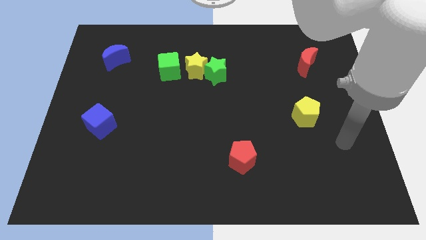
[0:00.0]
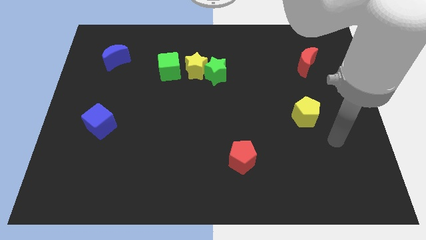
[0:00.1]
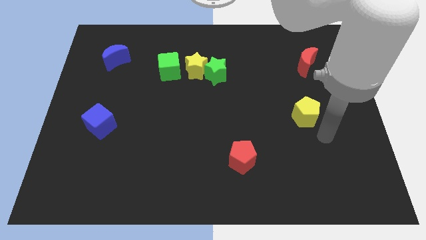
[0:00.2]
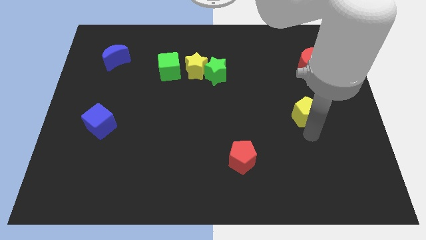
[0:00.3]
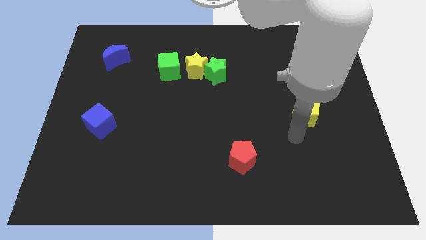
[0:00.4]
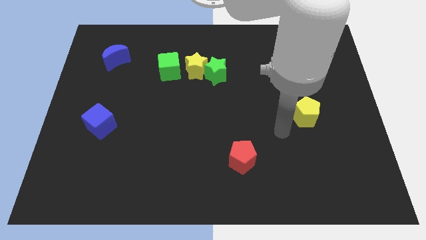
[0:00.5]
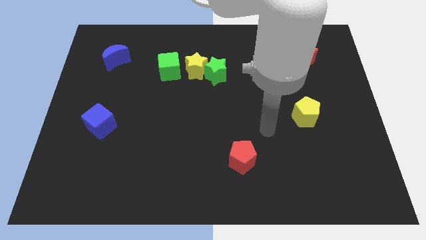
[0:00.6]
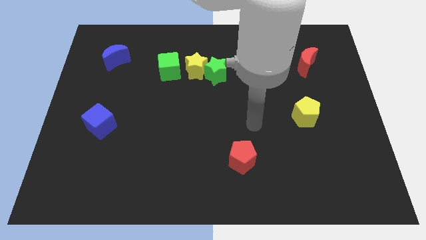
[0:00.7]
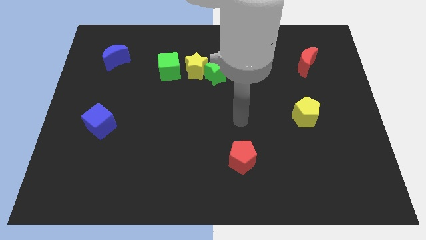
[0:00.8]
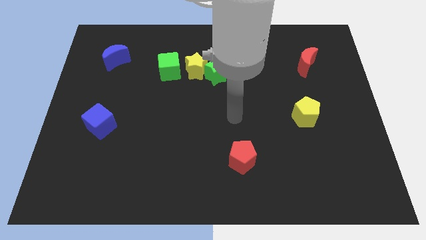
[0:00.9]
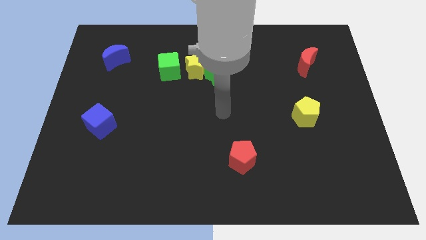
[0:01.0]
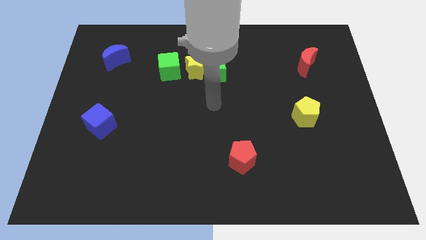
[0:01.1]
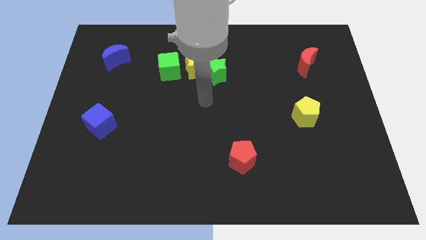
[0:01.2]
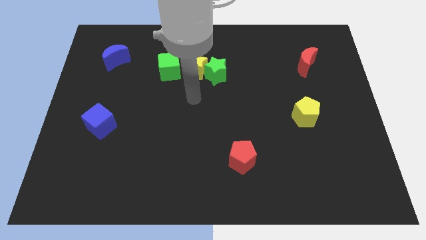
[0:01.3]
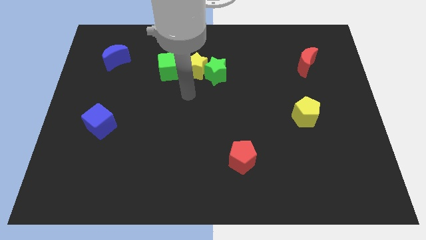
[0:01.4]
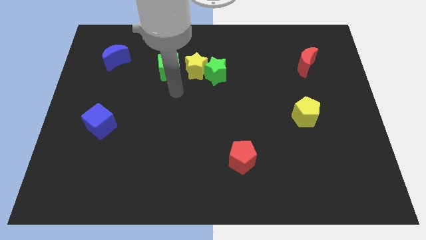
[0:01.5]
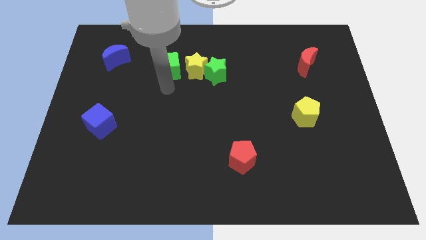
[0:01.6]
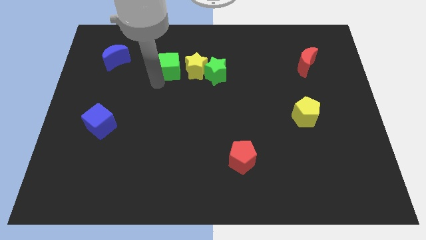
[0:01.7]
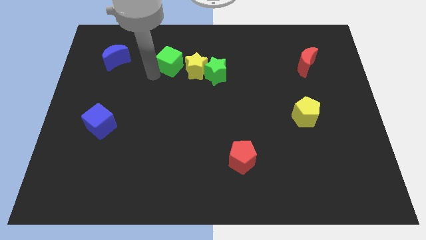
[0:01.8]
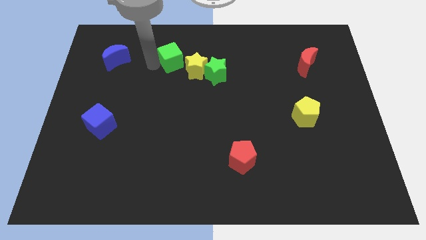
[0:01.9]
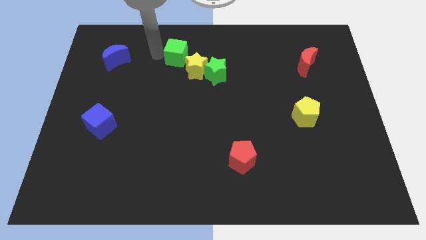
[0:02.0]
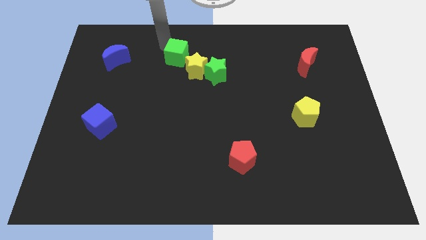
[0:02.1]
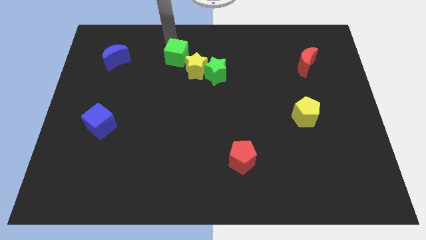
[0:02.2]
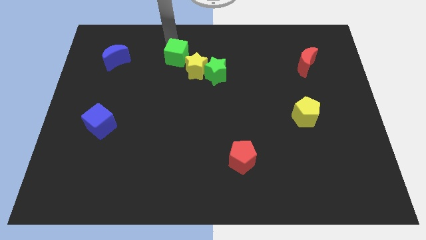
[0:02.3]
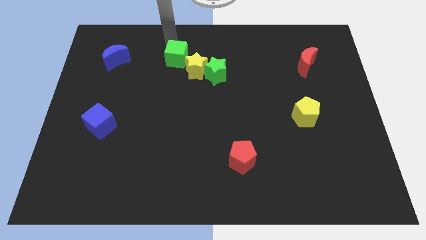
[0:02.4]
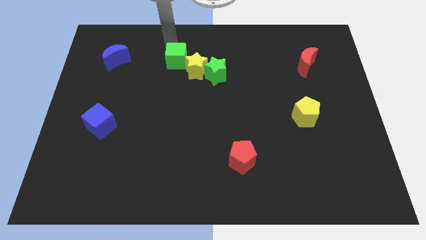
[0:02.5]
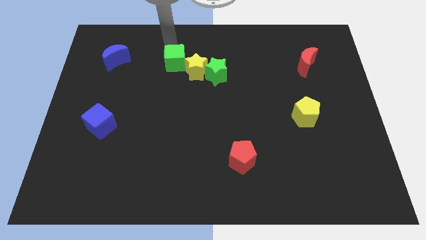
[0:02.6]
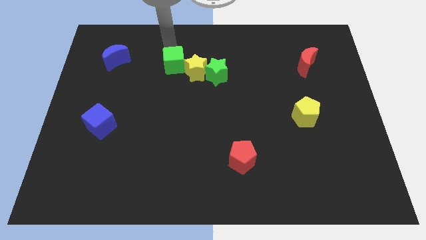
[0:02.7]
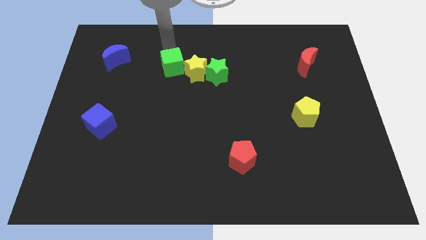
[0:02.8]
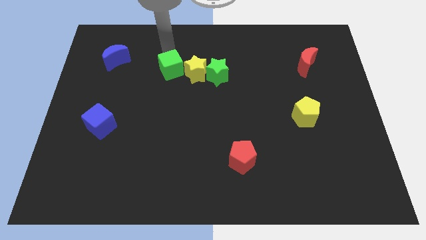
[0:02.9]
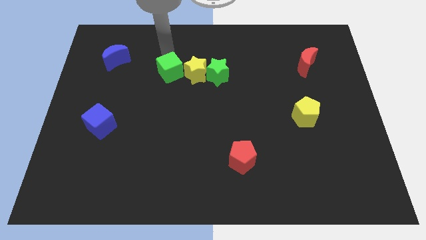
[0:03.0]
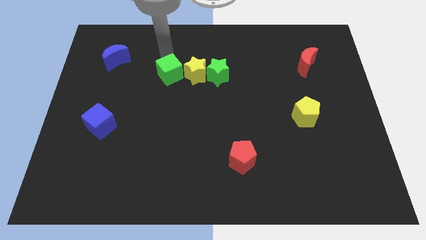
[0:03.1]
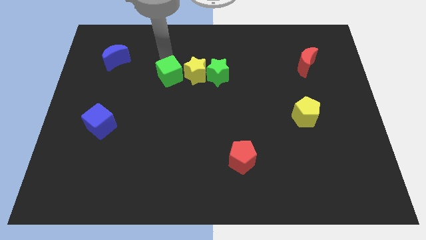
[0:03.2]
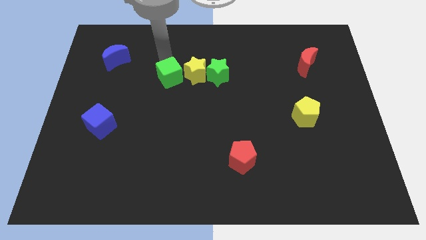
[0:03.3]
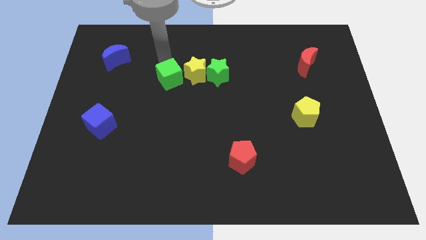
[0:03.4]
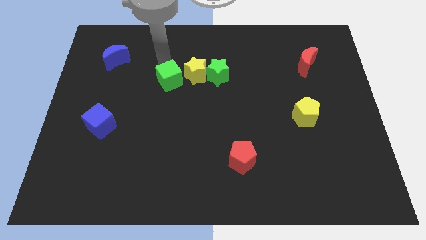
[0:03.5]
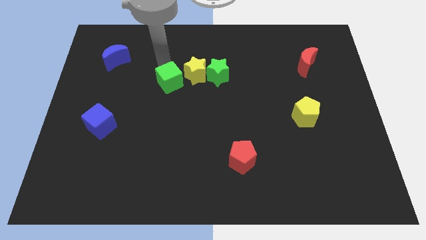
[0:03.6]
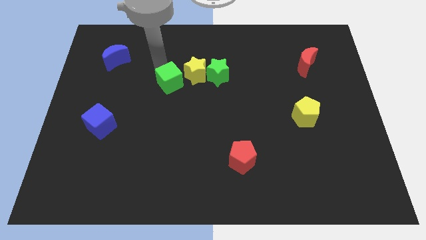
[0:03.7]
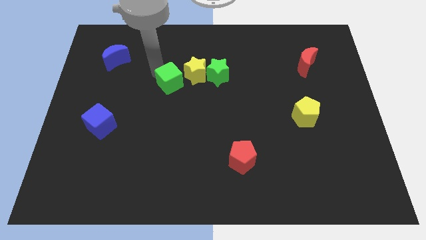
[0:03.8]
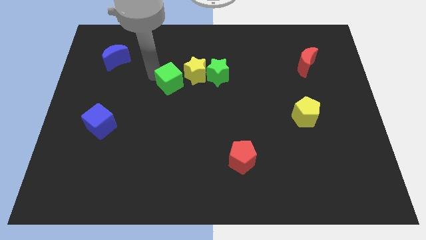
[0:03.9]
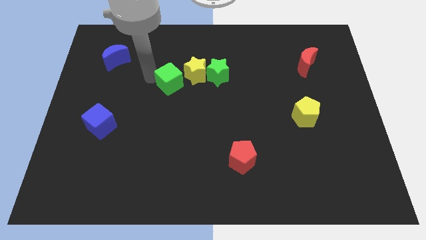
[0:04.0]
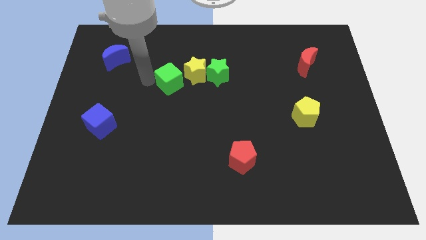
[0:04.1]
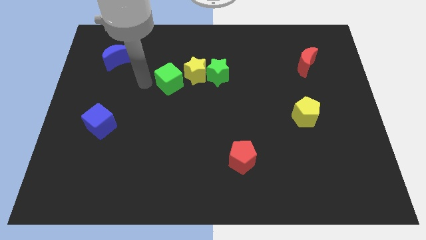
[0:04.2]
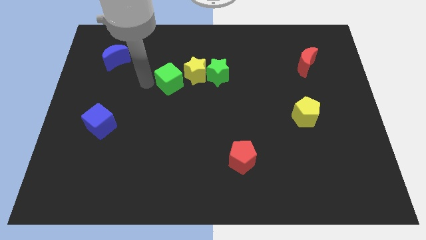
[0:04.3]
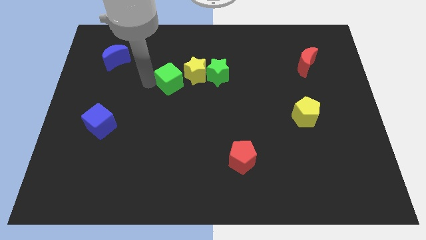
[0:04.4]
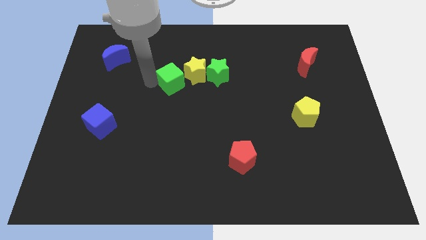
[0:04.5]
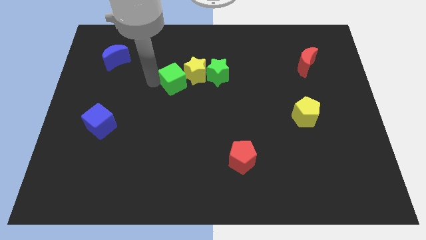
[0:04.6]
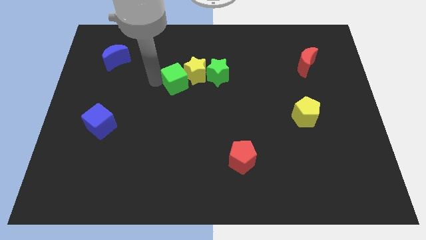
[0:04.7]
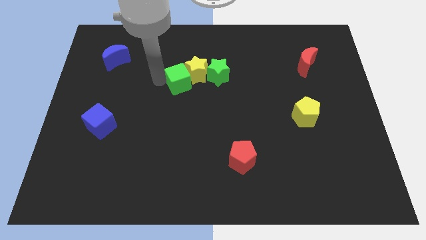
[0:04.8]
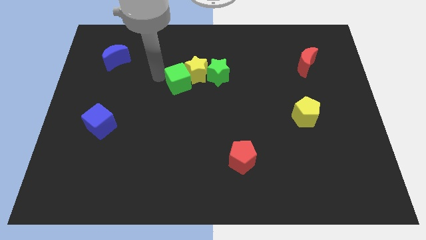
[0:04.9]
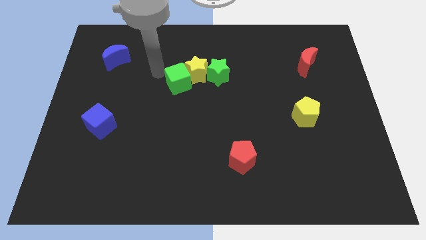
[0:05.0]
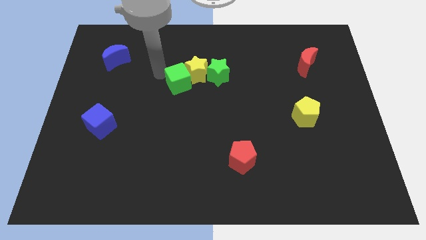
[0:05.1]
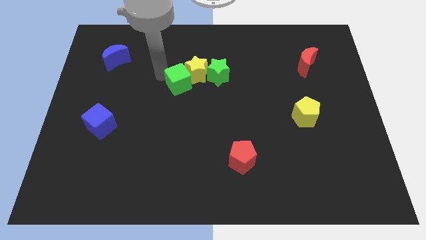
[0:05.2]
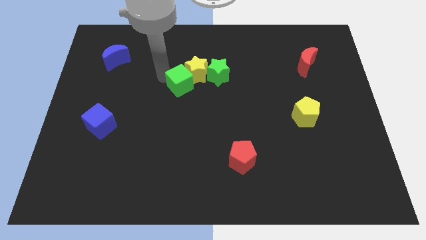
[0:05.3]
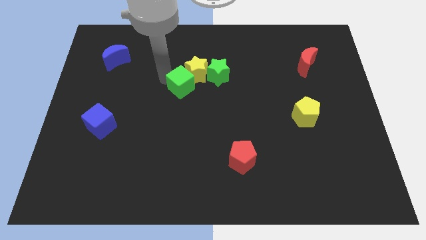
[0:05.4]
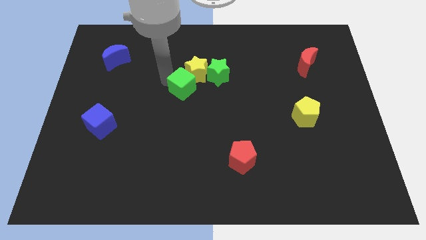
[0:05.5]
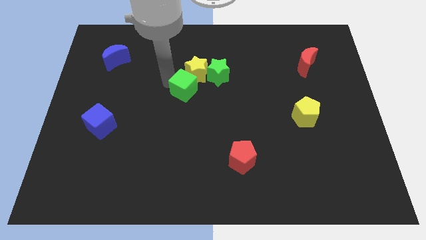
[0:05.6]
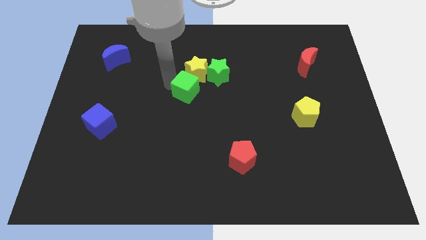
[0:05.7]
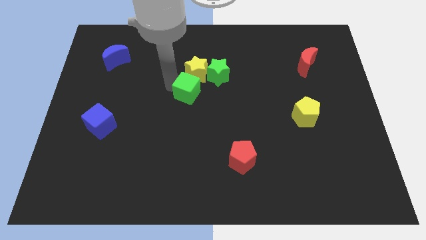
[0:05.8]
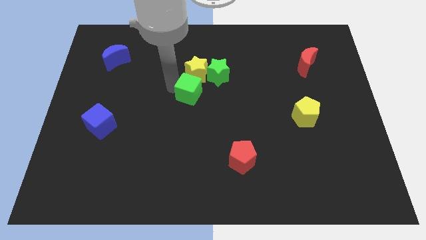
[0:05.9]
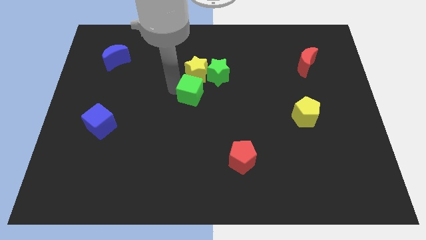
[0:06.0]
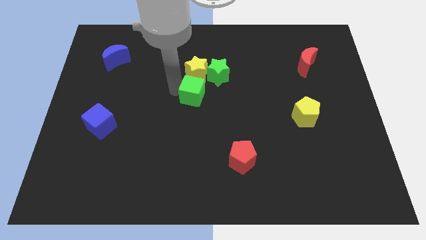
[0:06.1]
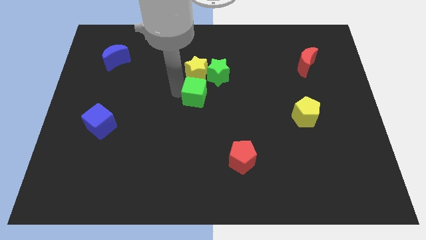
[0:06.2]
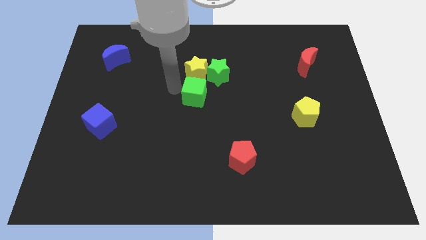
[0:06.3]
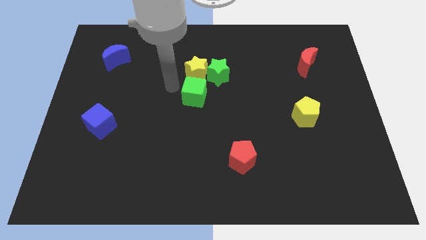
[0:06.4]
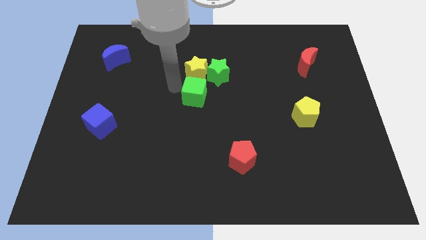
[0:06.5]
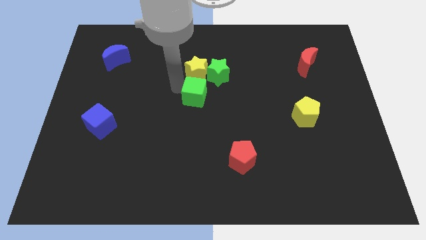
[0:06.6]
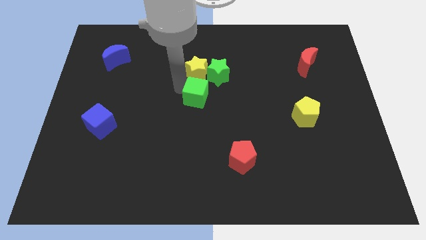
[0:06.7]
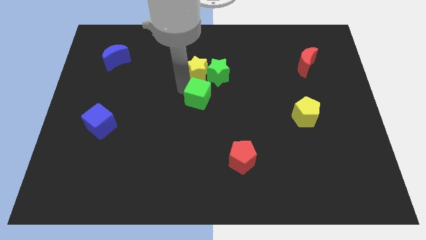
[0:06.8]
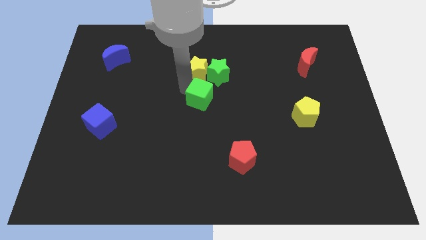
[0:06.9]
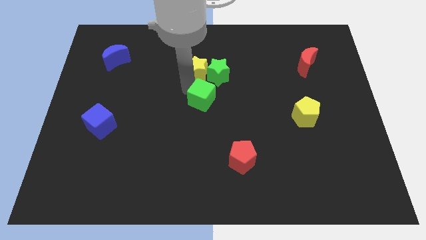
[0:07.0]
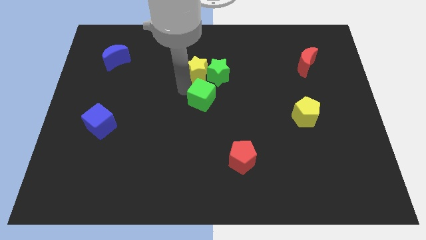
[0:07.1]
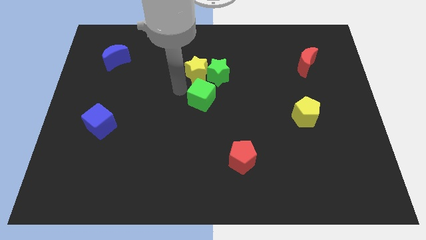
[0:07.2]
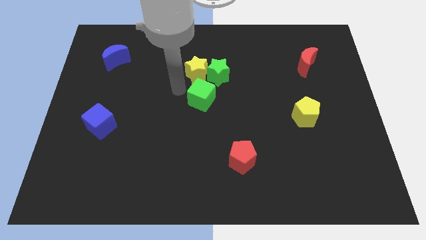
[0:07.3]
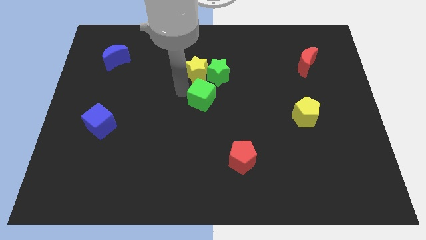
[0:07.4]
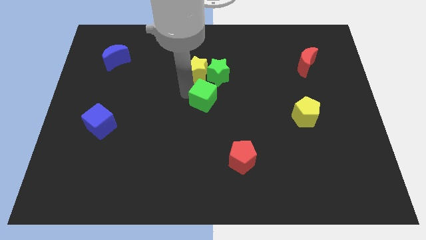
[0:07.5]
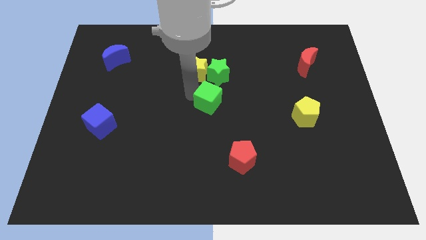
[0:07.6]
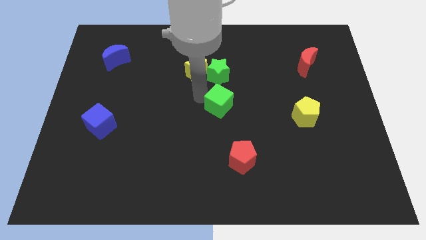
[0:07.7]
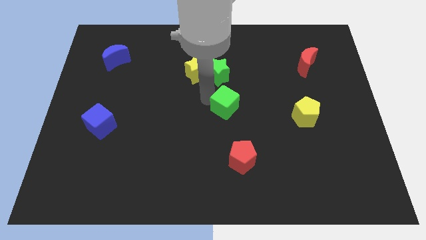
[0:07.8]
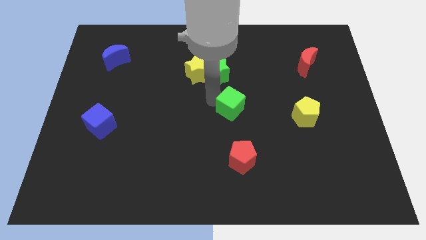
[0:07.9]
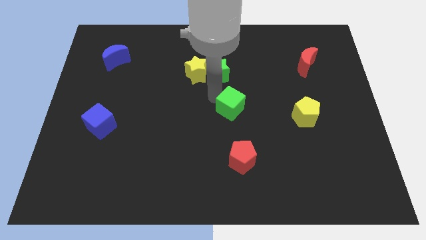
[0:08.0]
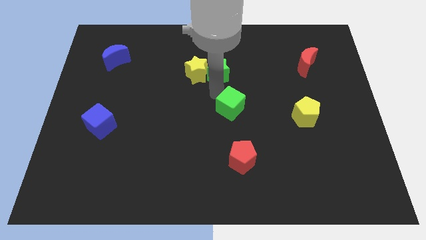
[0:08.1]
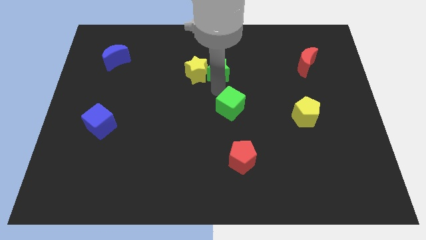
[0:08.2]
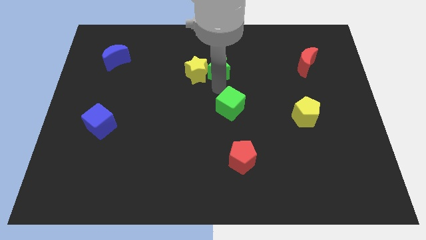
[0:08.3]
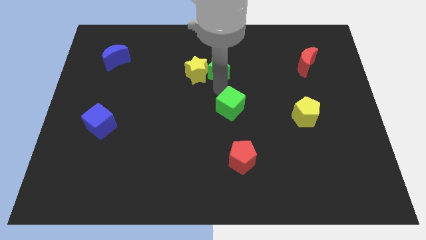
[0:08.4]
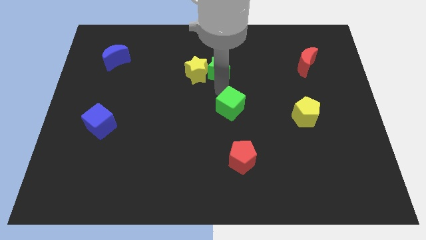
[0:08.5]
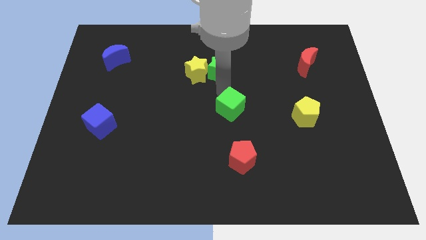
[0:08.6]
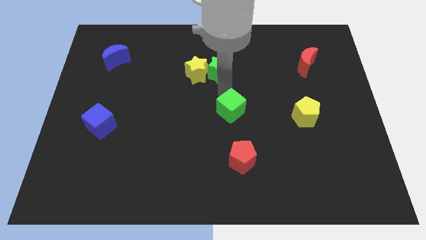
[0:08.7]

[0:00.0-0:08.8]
move the green cube diagonally downwards and right
